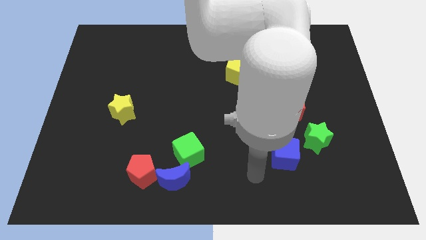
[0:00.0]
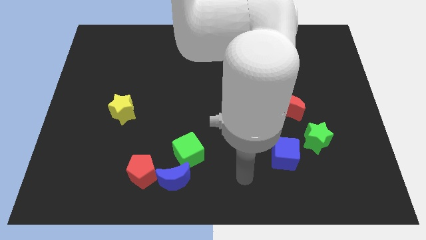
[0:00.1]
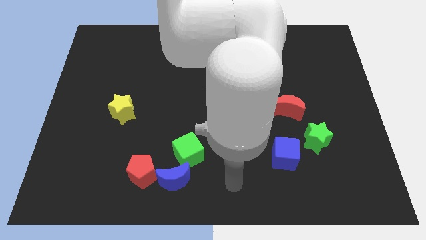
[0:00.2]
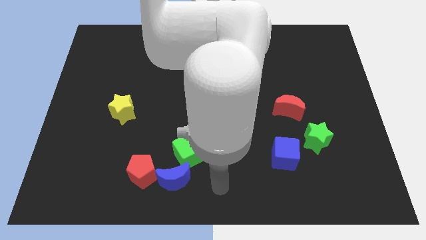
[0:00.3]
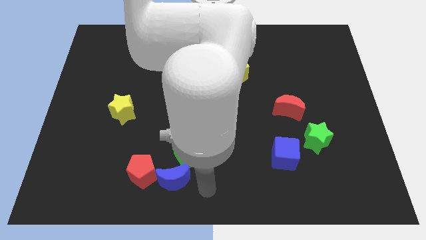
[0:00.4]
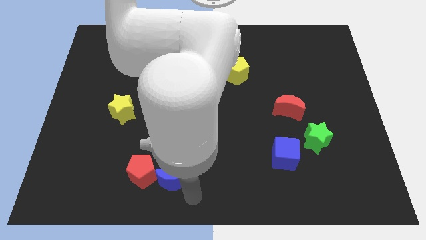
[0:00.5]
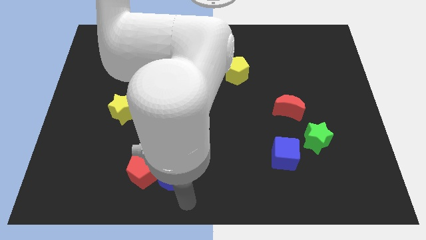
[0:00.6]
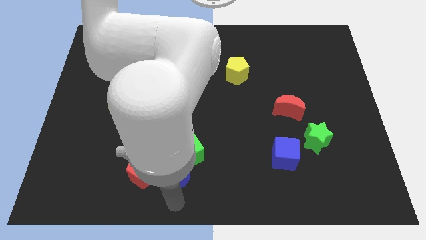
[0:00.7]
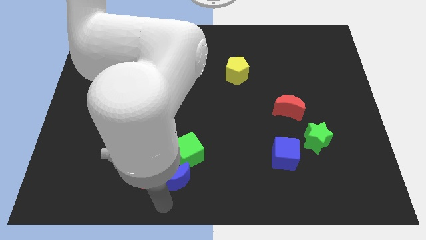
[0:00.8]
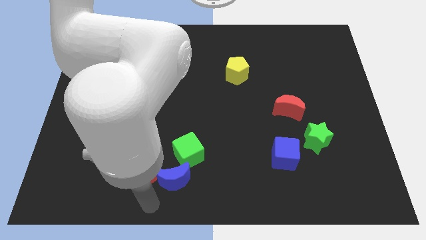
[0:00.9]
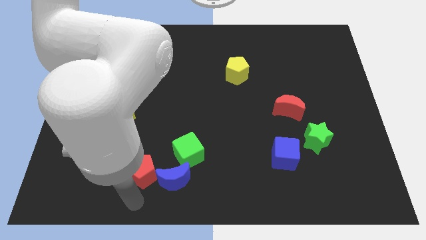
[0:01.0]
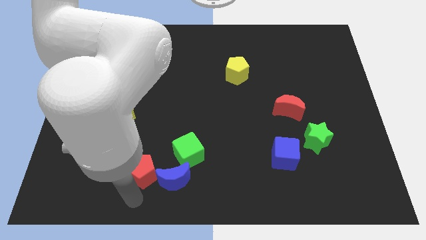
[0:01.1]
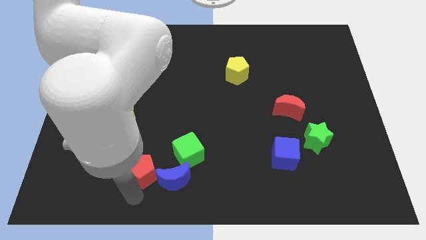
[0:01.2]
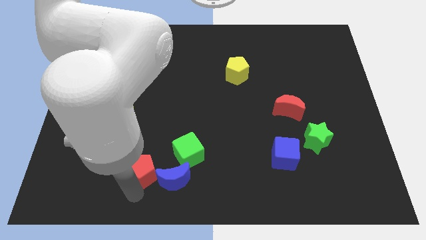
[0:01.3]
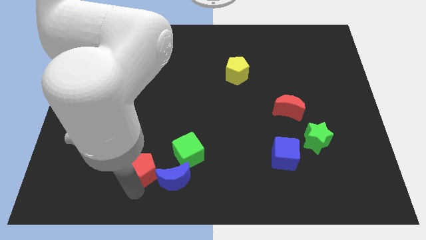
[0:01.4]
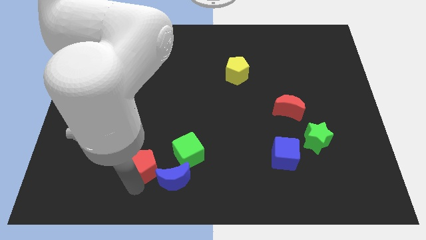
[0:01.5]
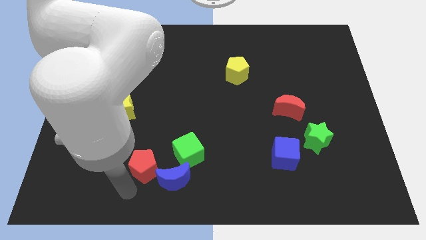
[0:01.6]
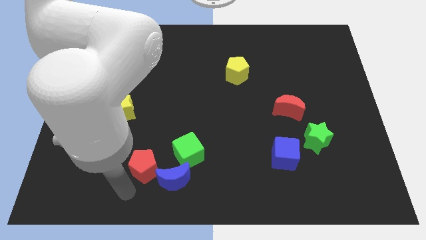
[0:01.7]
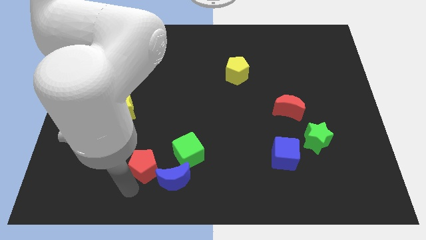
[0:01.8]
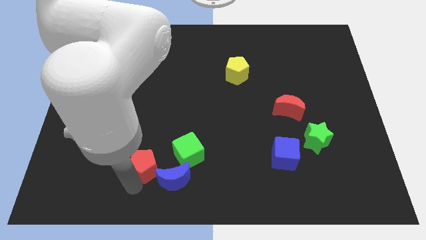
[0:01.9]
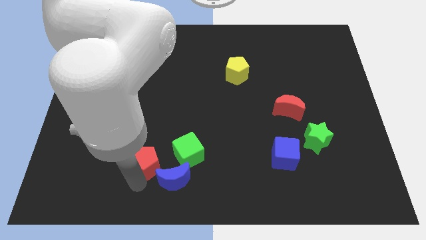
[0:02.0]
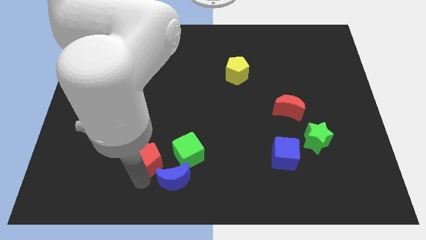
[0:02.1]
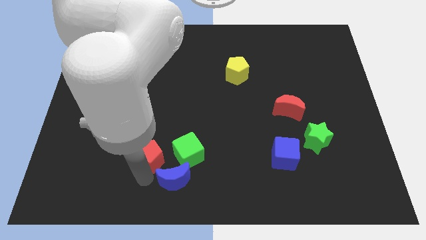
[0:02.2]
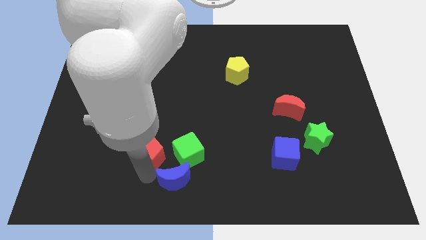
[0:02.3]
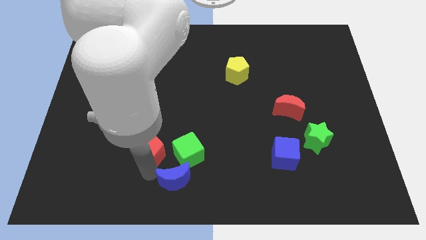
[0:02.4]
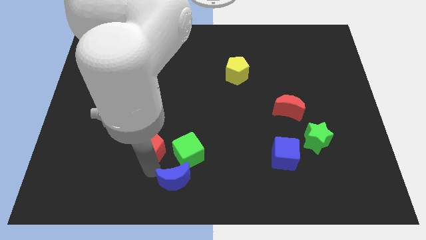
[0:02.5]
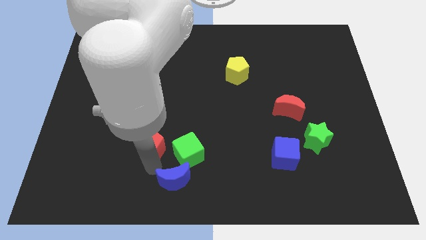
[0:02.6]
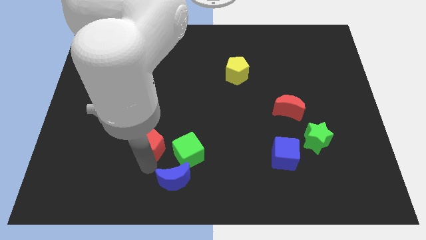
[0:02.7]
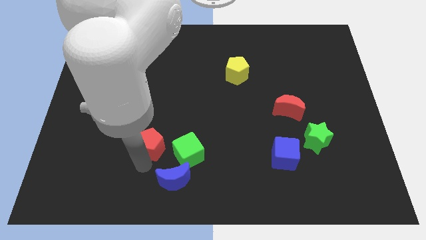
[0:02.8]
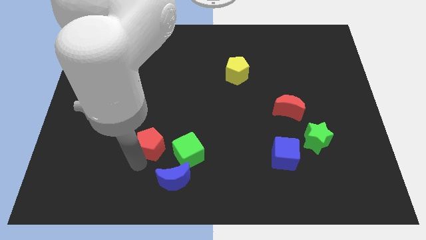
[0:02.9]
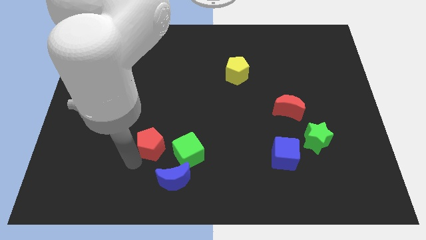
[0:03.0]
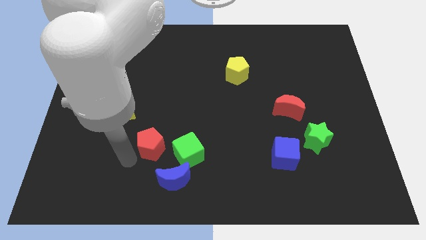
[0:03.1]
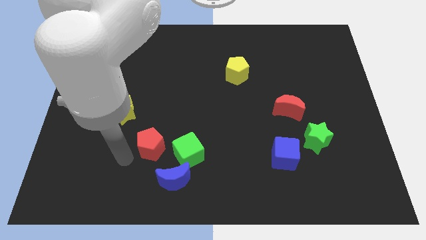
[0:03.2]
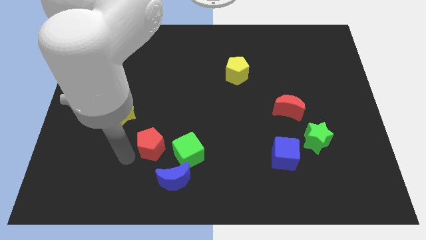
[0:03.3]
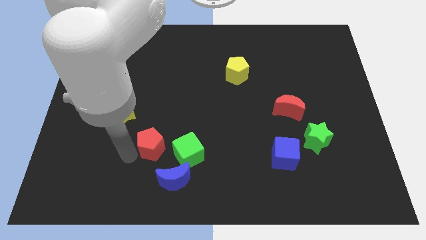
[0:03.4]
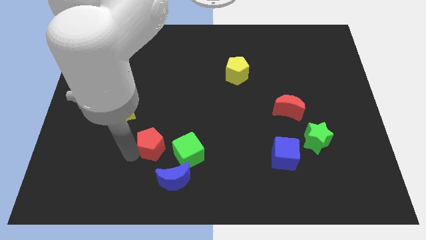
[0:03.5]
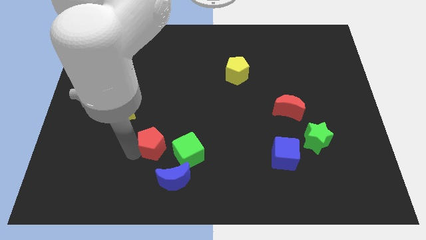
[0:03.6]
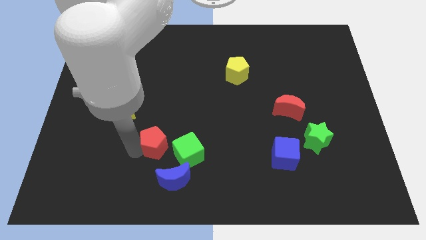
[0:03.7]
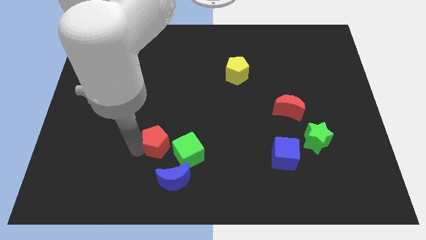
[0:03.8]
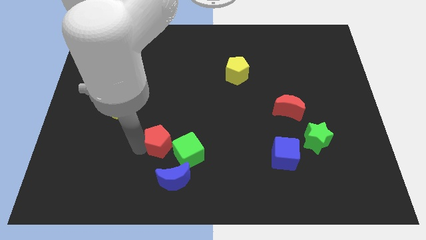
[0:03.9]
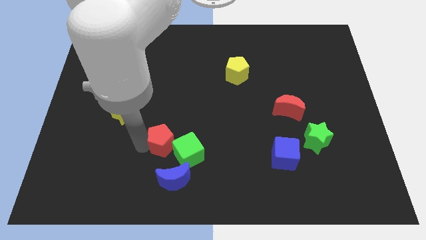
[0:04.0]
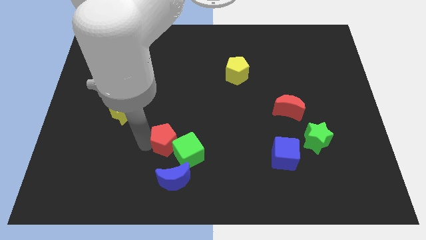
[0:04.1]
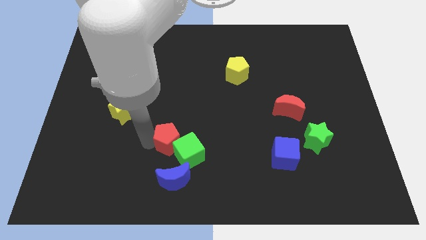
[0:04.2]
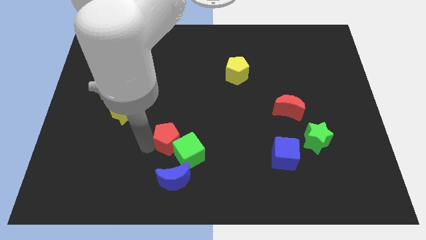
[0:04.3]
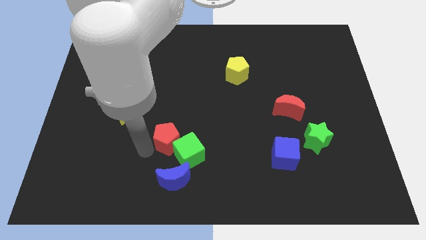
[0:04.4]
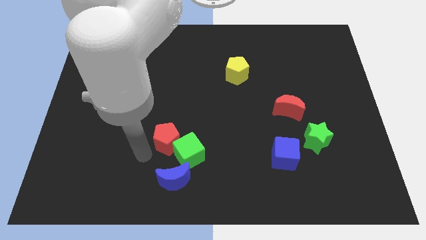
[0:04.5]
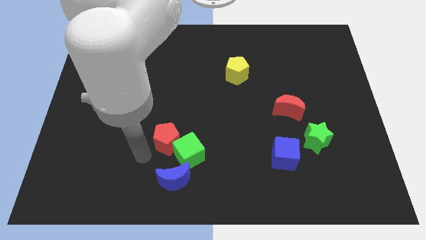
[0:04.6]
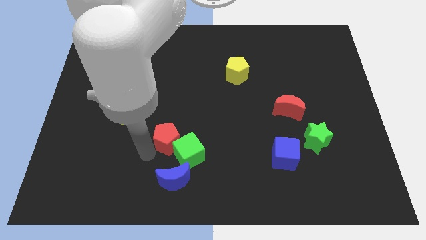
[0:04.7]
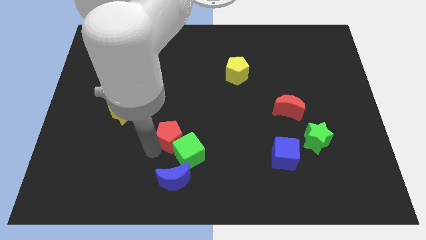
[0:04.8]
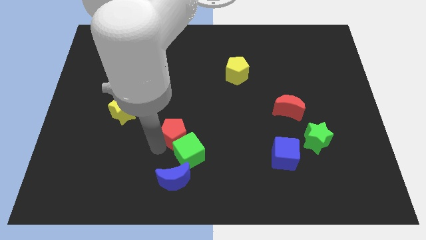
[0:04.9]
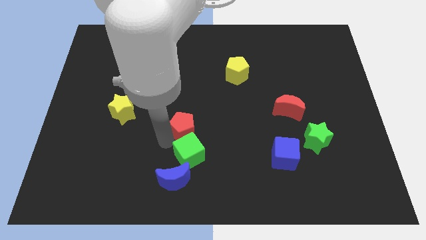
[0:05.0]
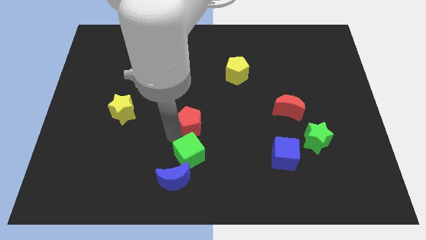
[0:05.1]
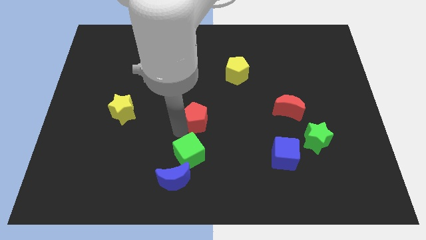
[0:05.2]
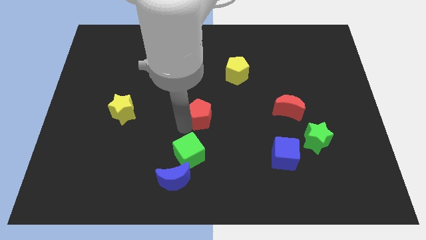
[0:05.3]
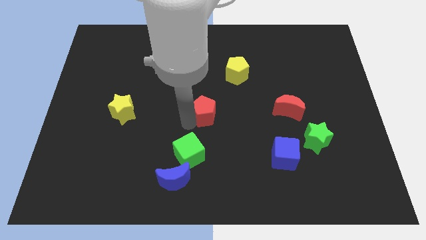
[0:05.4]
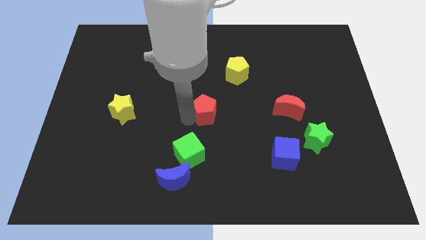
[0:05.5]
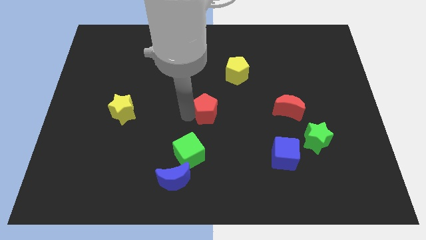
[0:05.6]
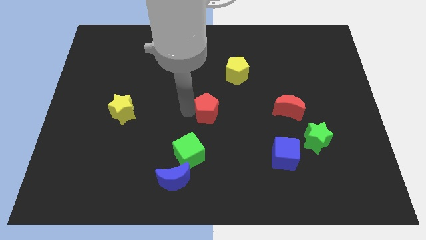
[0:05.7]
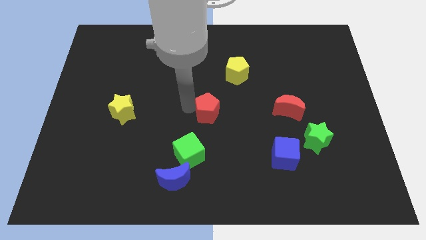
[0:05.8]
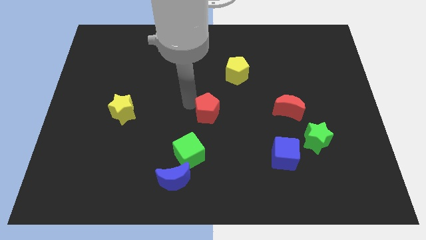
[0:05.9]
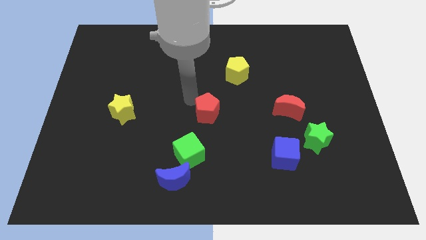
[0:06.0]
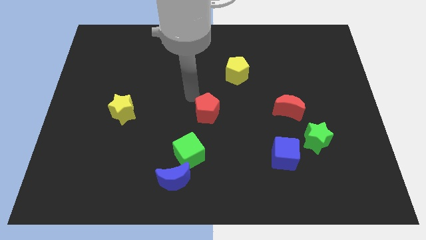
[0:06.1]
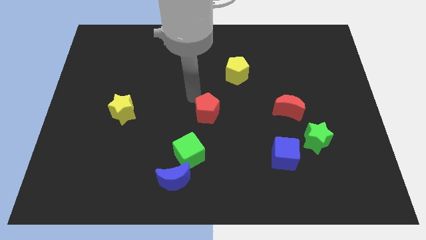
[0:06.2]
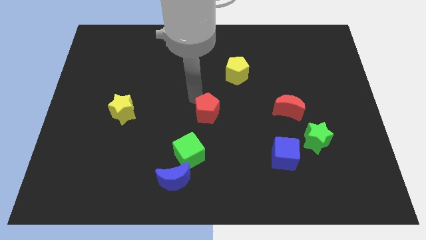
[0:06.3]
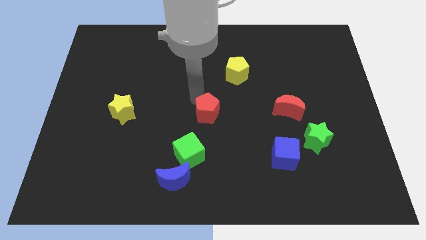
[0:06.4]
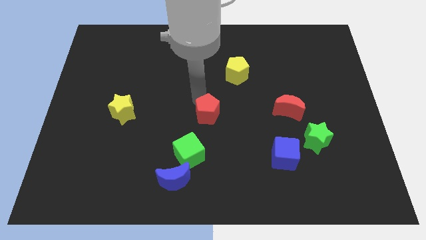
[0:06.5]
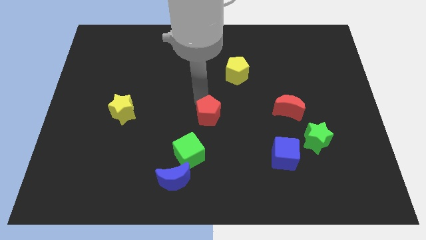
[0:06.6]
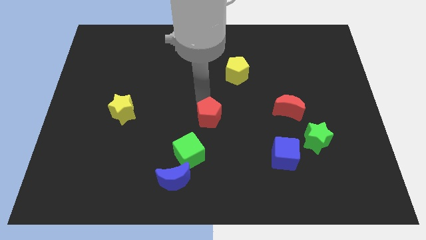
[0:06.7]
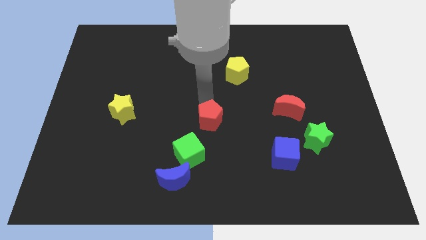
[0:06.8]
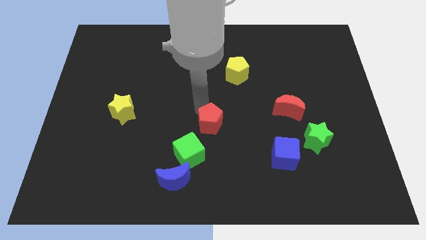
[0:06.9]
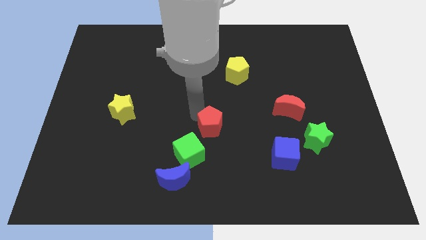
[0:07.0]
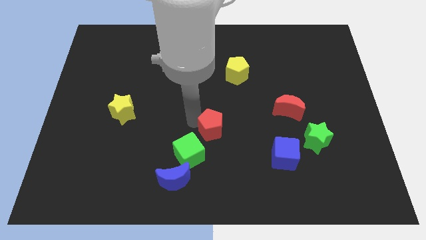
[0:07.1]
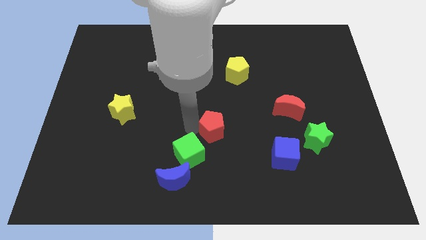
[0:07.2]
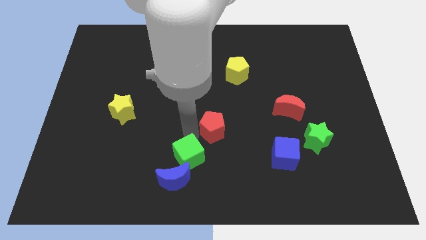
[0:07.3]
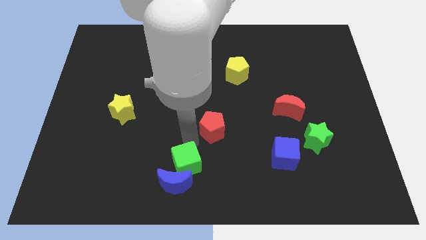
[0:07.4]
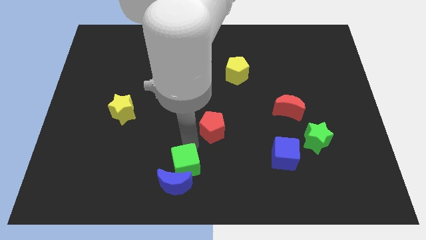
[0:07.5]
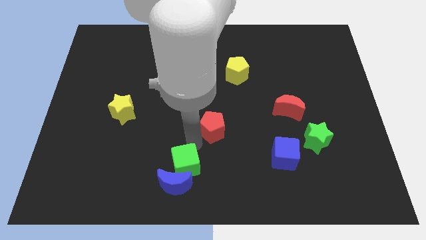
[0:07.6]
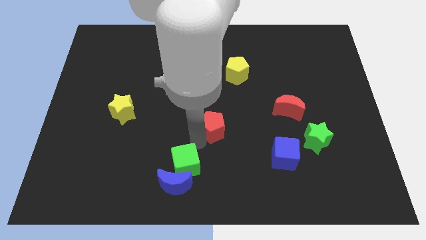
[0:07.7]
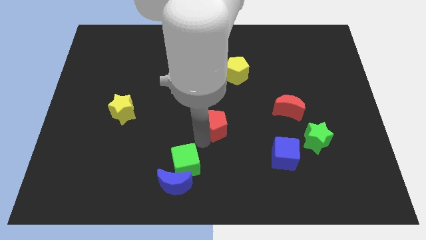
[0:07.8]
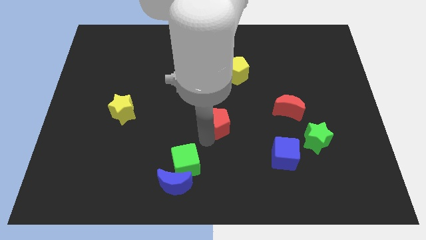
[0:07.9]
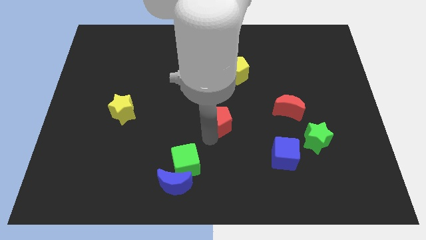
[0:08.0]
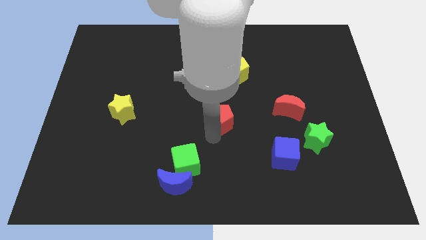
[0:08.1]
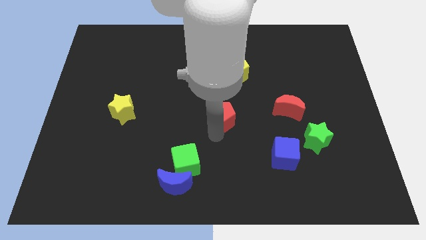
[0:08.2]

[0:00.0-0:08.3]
move the red pentagon just left of the red moon
